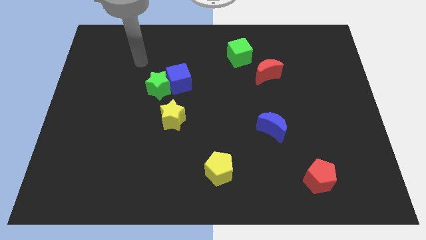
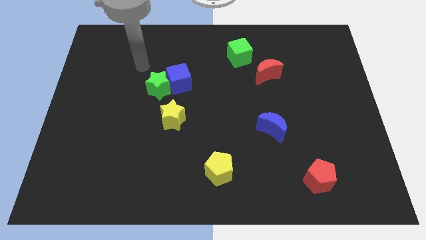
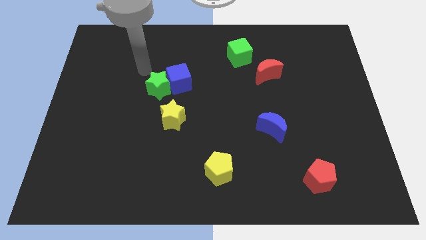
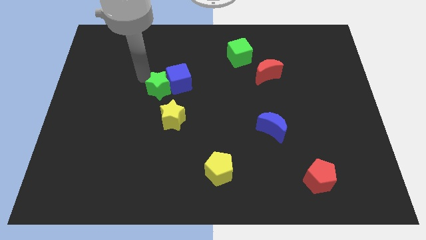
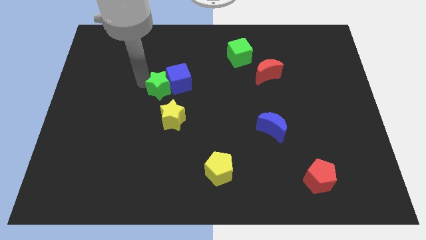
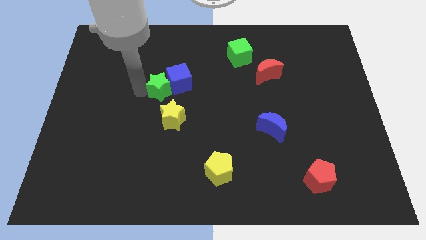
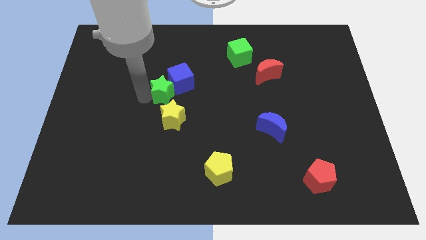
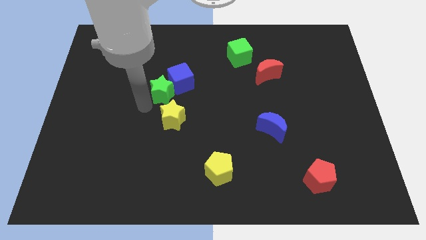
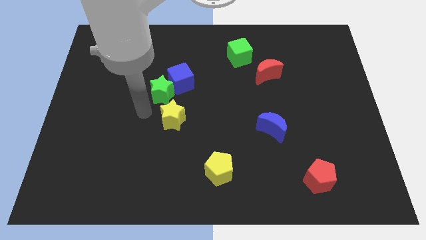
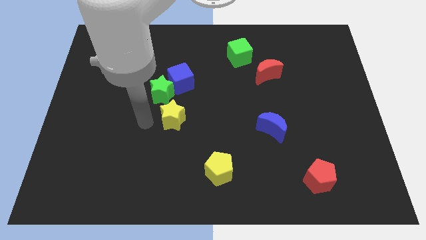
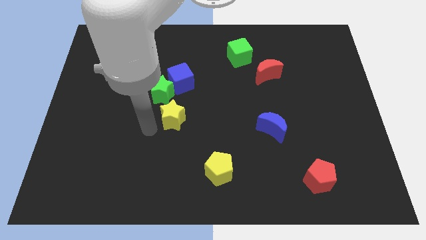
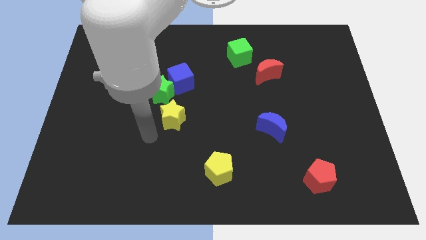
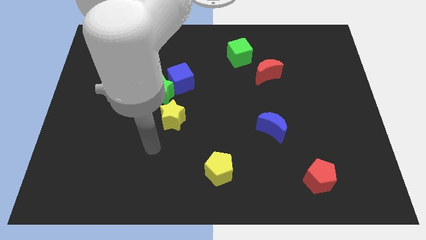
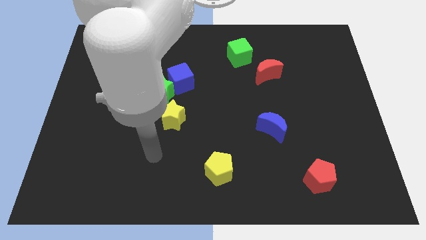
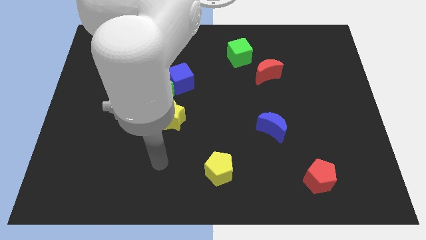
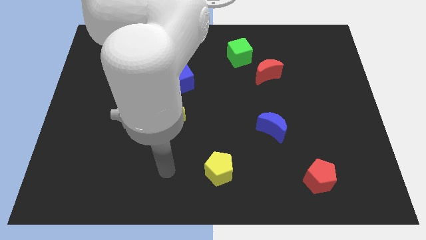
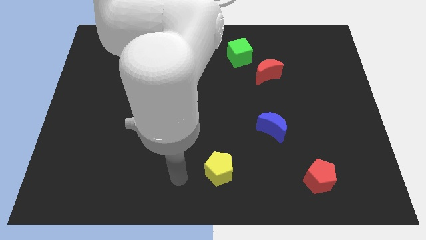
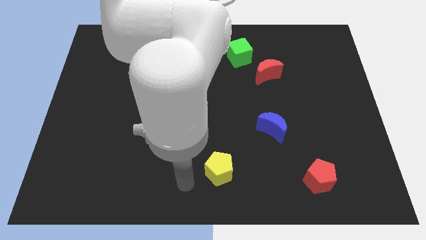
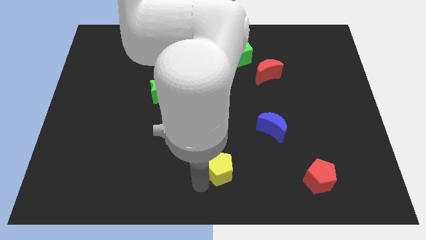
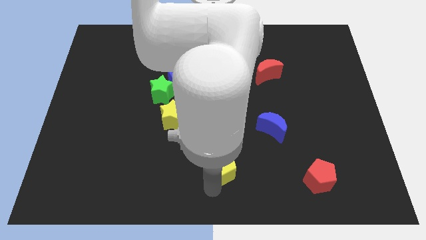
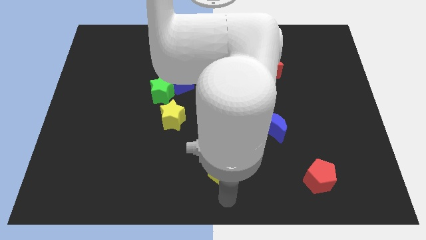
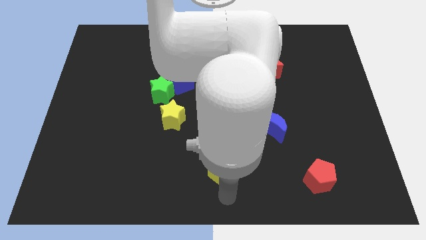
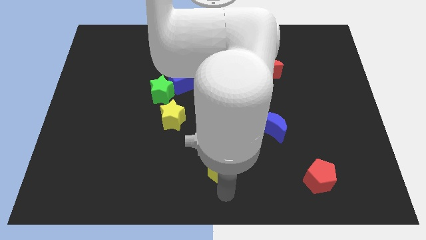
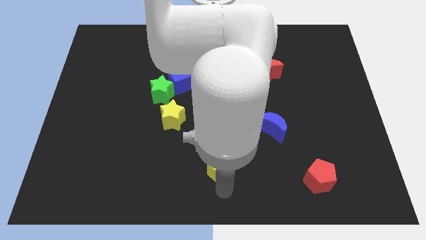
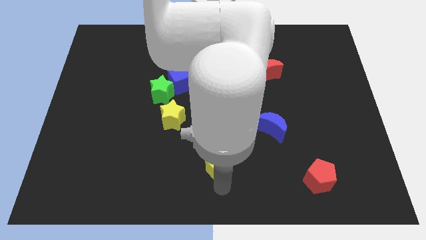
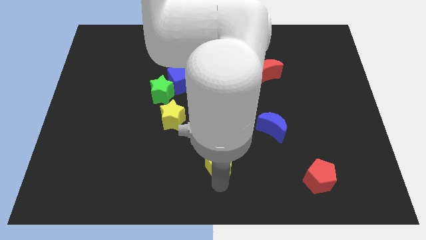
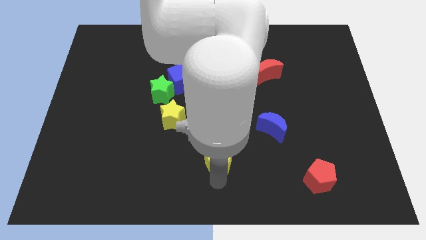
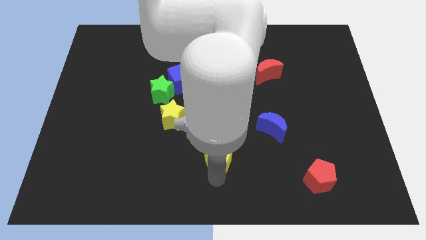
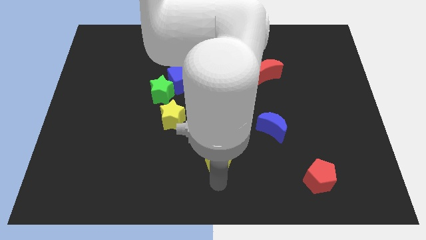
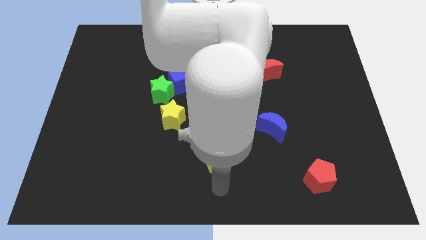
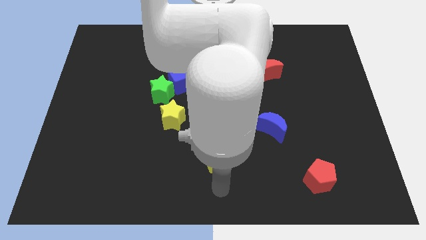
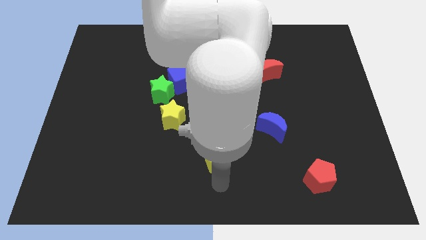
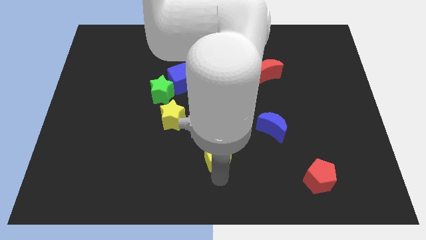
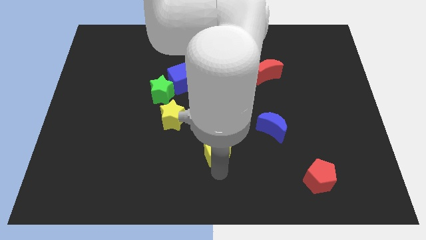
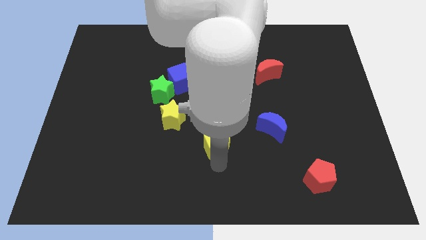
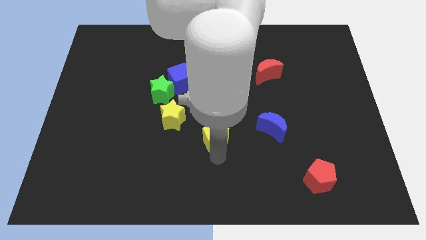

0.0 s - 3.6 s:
slide the yellow pentagon a little bit upwards

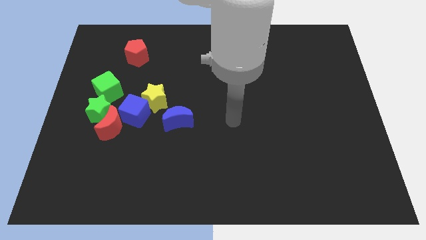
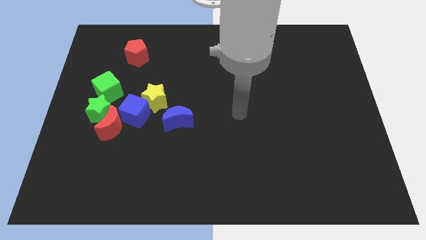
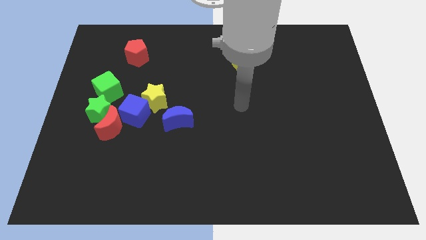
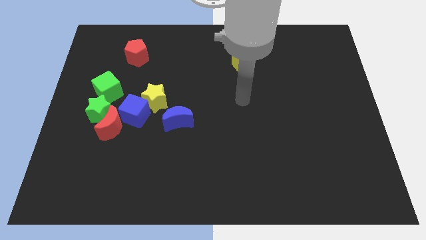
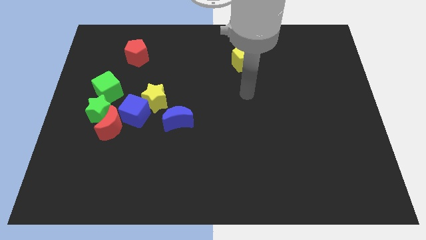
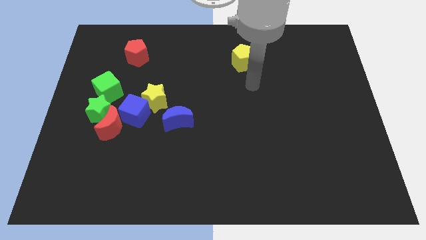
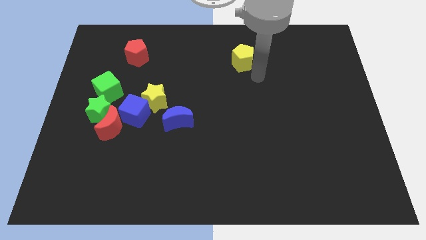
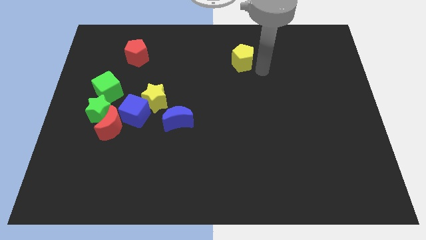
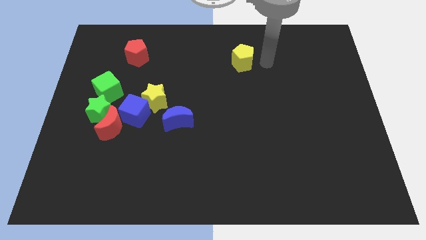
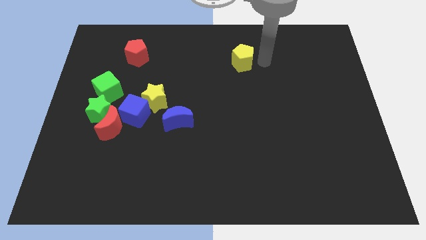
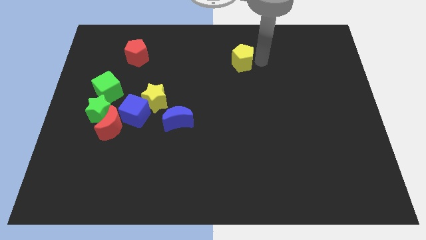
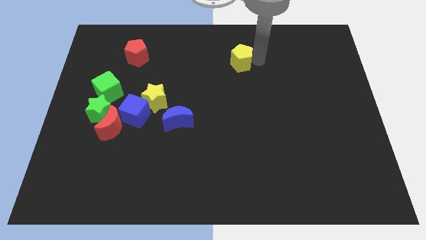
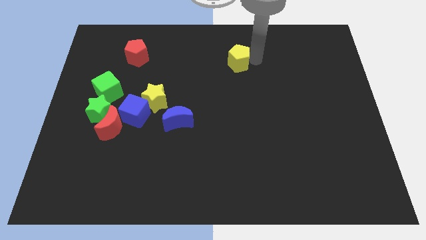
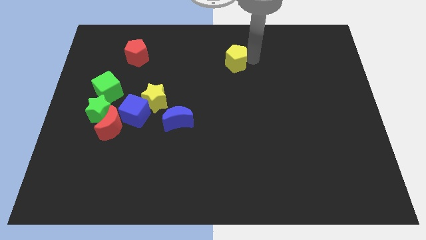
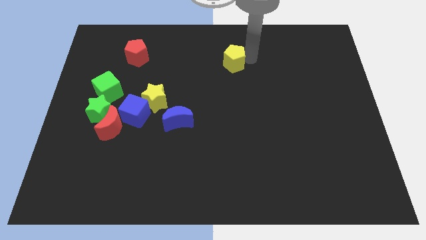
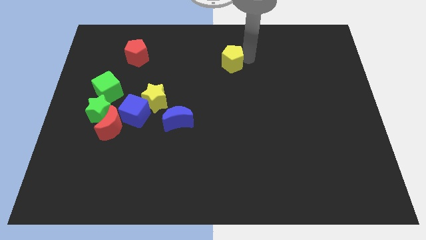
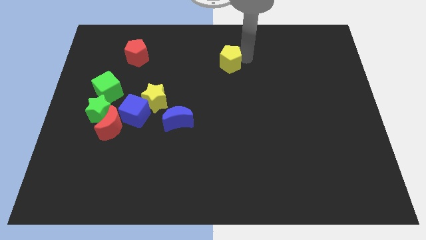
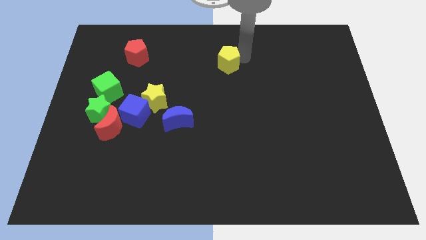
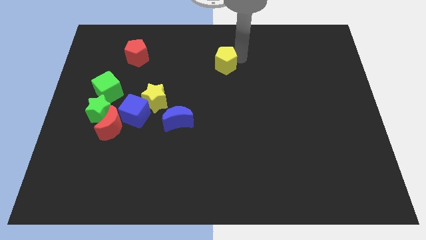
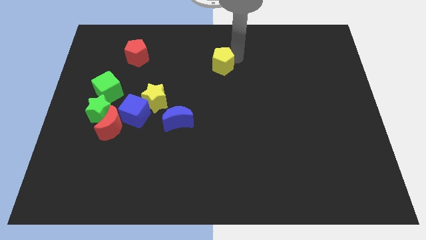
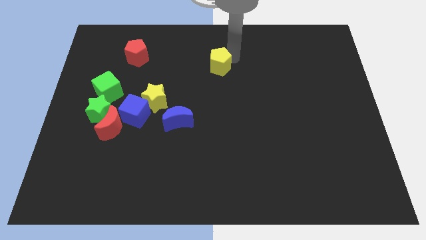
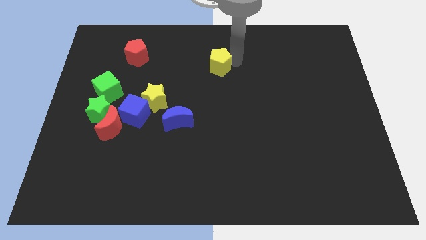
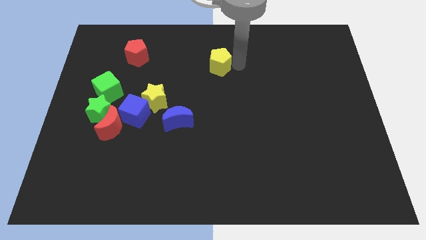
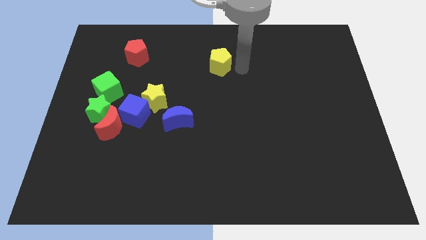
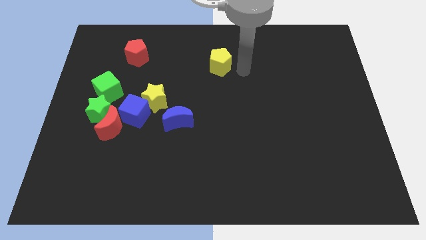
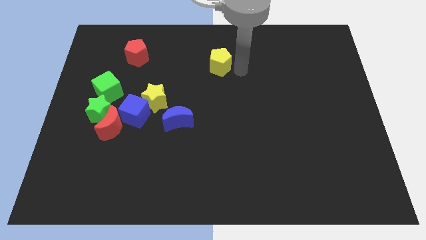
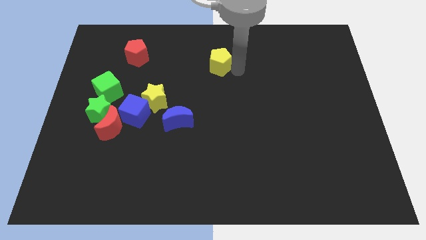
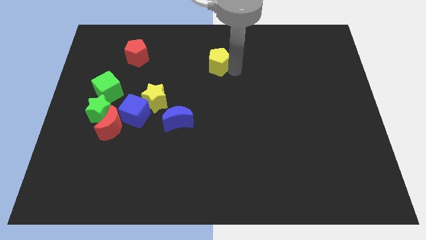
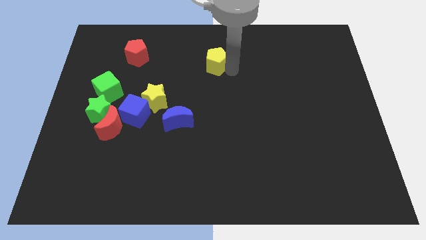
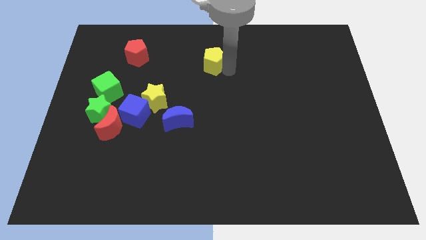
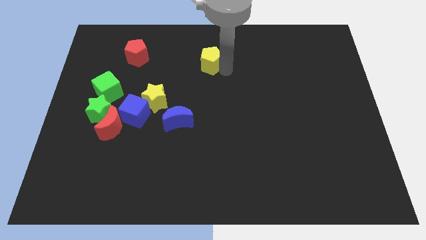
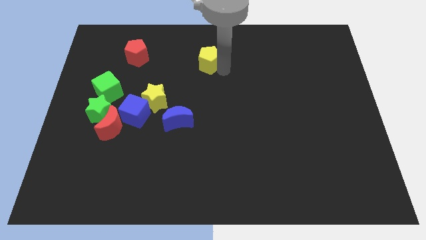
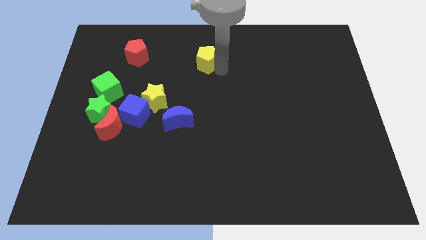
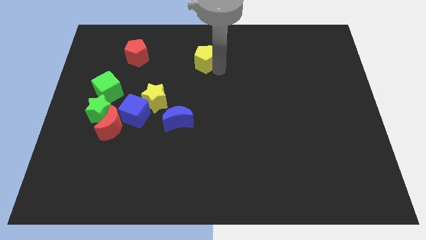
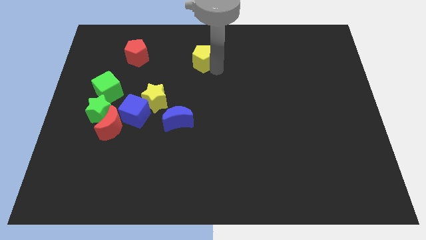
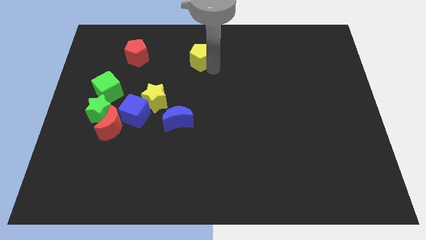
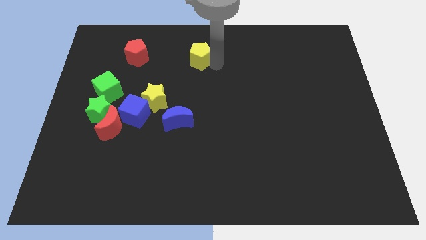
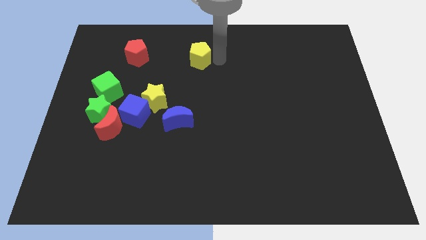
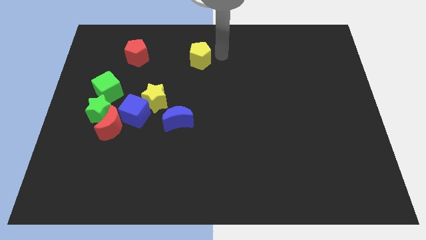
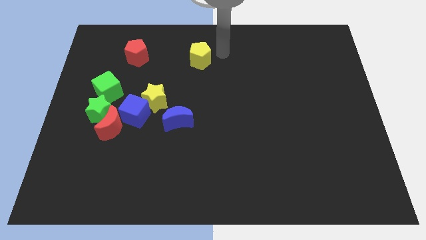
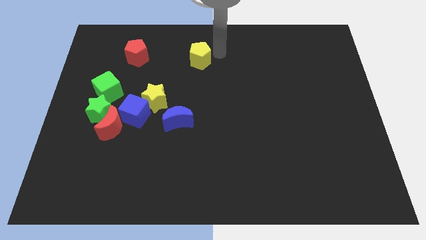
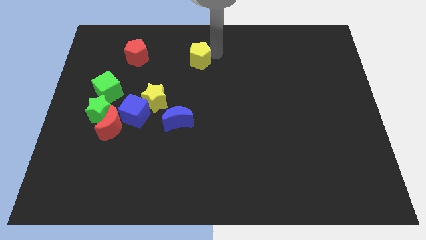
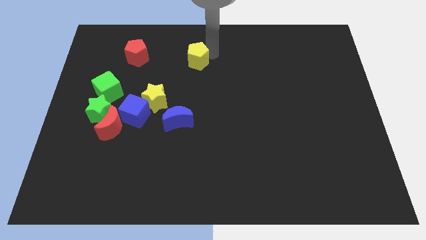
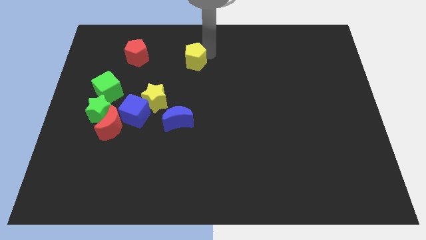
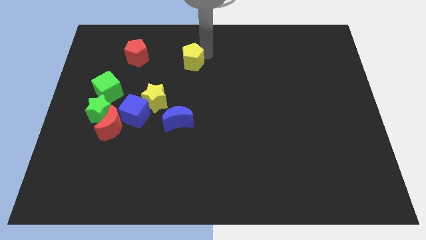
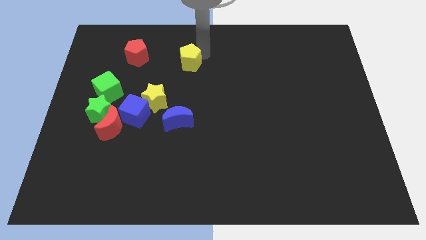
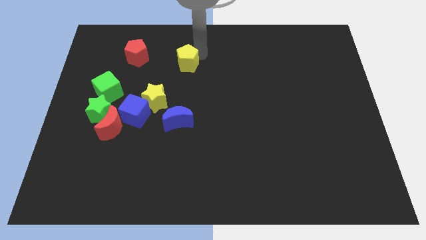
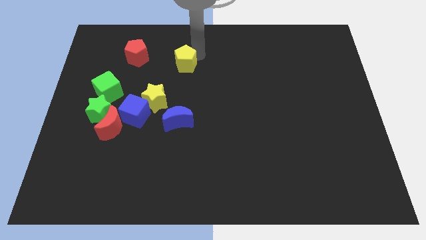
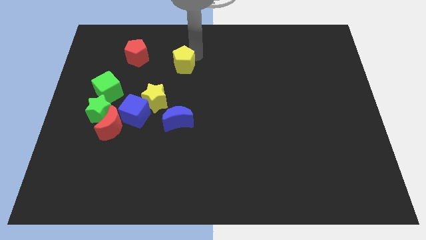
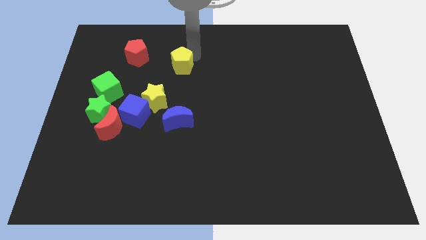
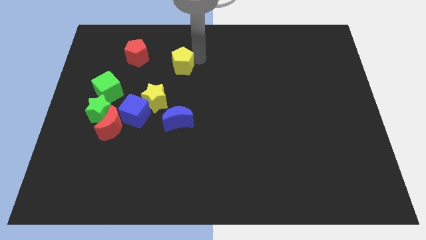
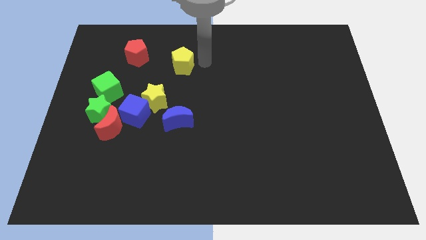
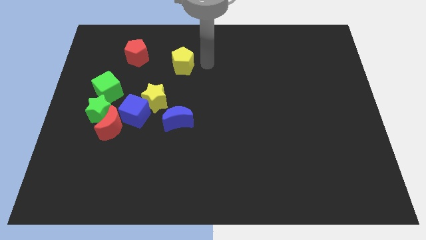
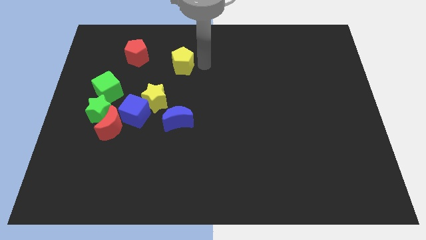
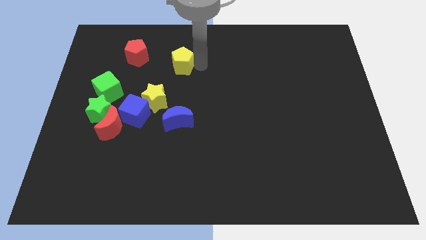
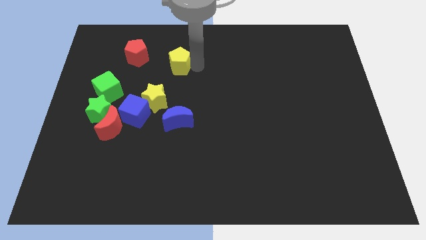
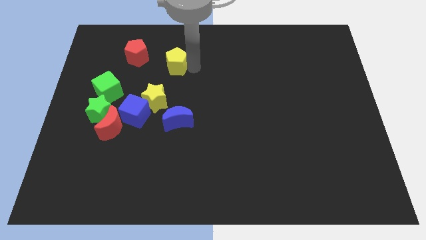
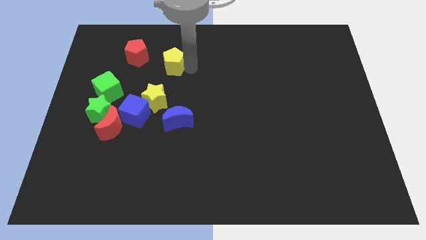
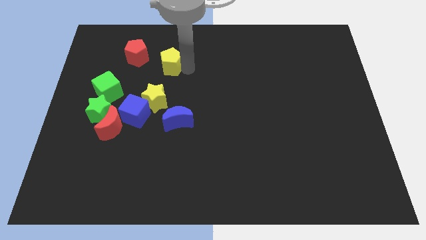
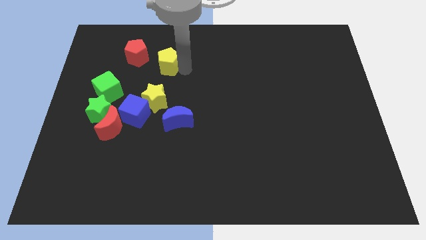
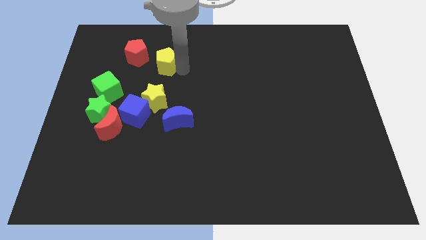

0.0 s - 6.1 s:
move the yellow pentagon left
